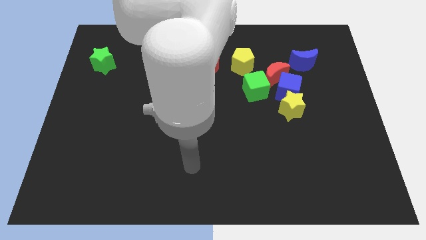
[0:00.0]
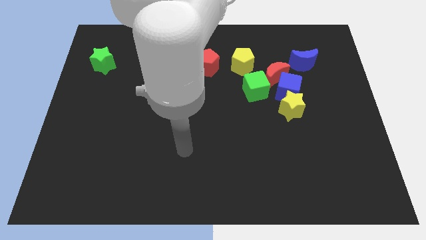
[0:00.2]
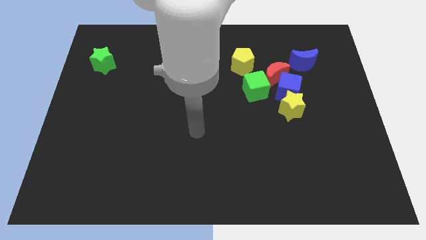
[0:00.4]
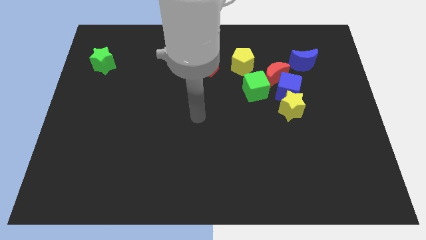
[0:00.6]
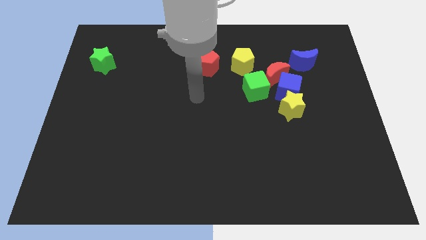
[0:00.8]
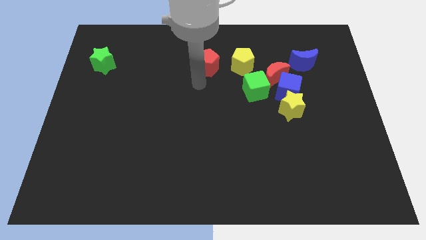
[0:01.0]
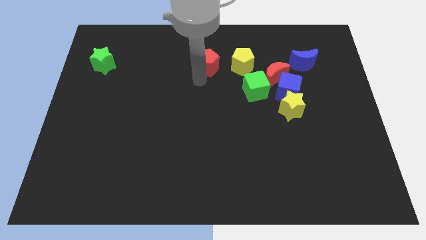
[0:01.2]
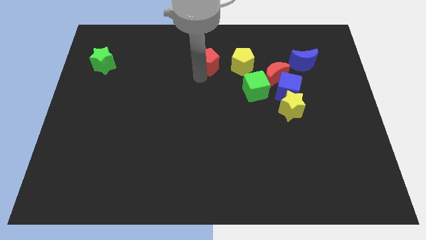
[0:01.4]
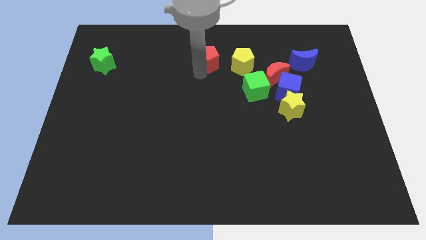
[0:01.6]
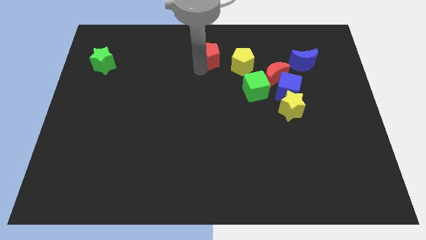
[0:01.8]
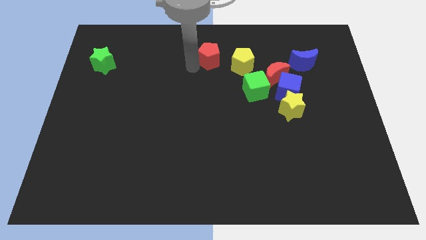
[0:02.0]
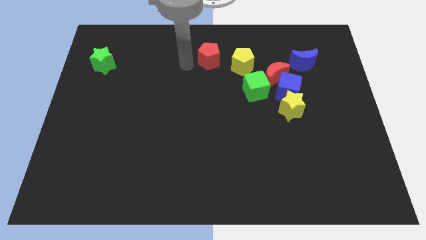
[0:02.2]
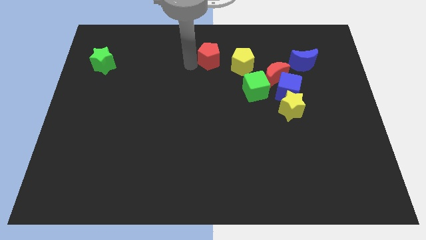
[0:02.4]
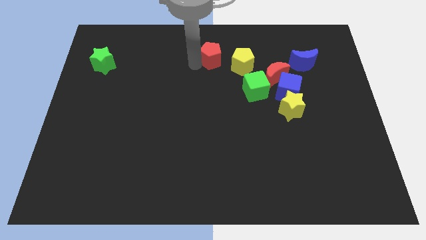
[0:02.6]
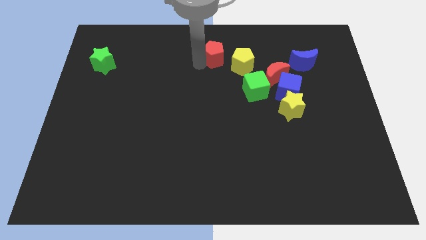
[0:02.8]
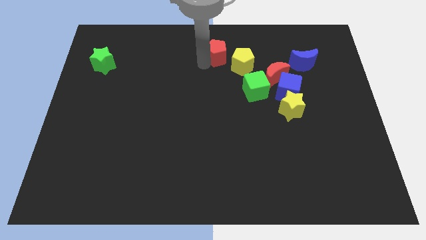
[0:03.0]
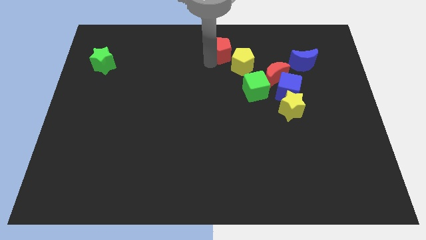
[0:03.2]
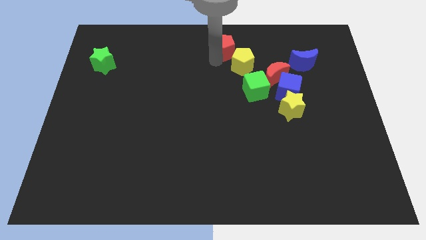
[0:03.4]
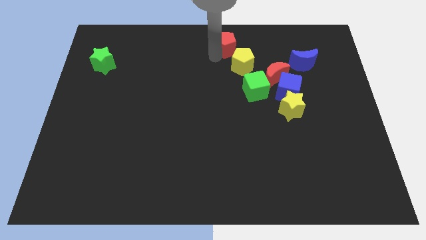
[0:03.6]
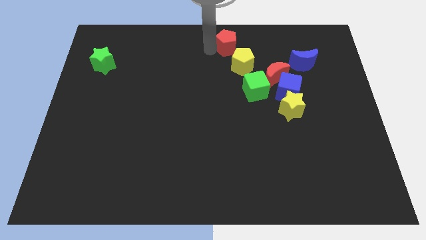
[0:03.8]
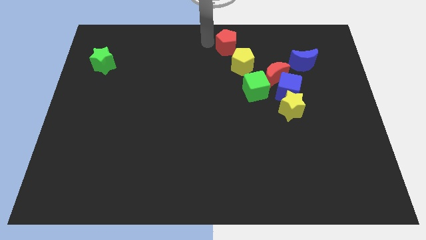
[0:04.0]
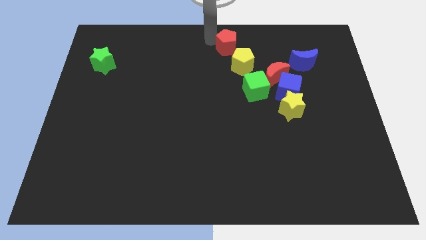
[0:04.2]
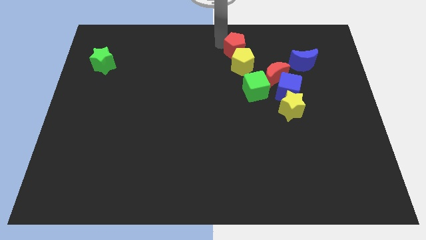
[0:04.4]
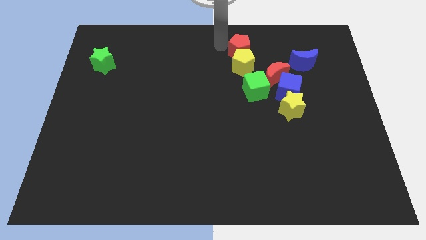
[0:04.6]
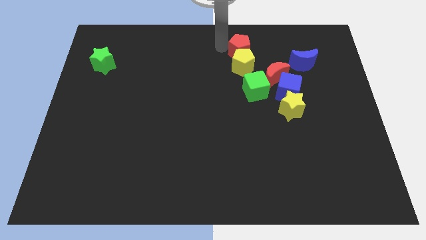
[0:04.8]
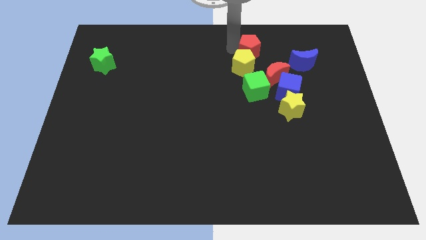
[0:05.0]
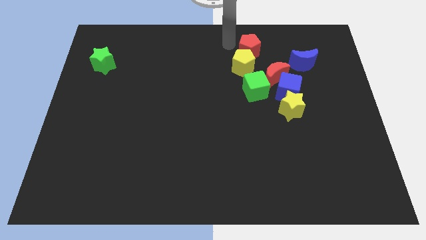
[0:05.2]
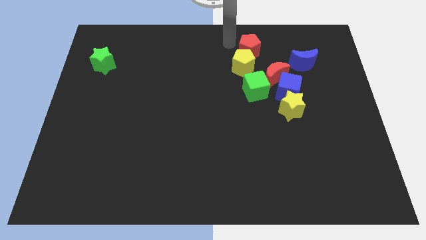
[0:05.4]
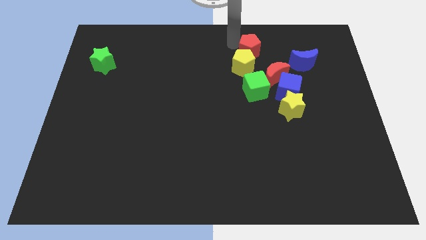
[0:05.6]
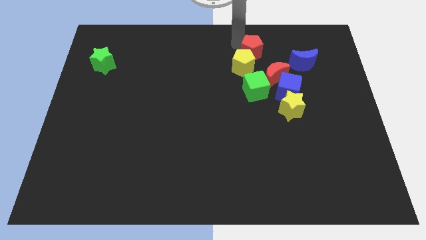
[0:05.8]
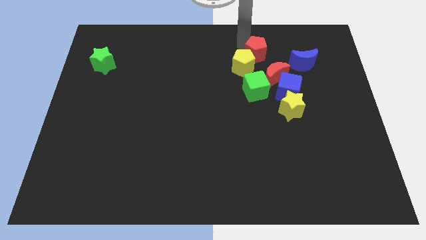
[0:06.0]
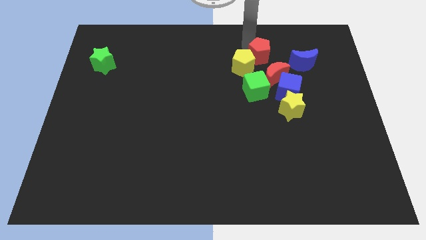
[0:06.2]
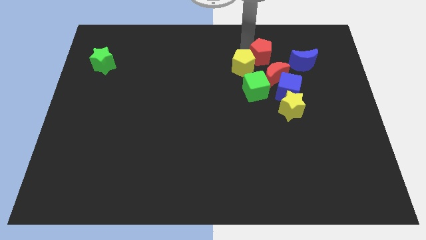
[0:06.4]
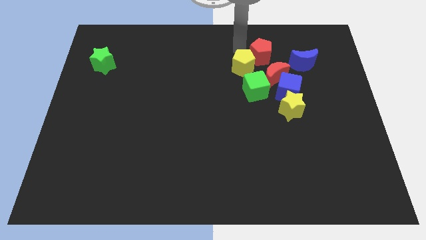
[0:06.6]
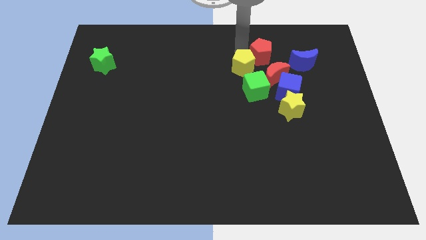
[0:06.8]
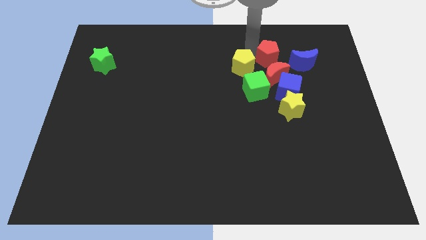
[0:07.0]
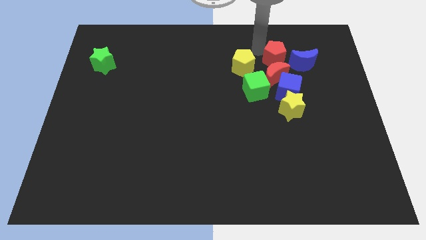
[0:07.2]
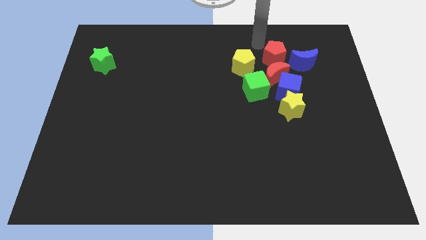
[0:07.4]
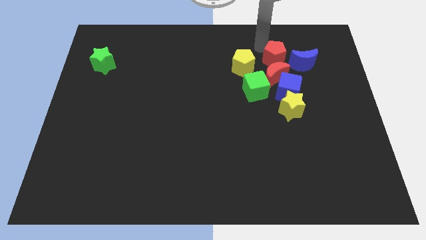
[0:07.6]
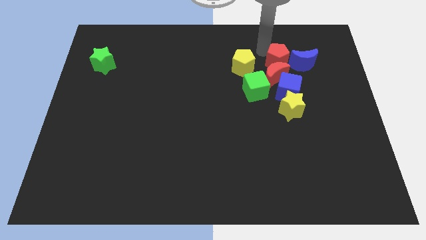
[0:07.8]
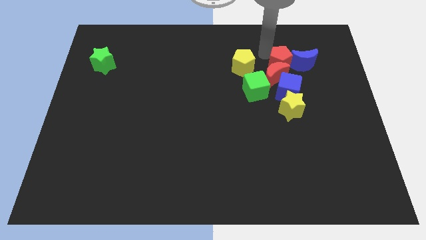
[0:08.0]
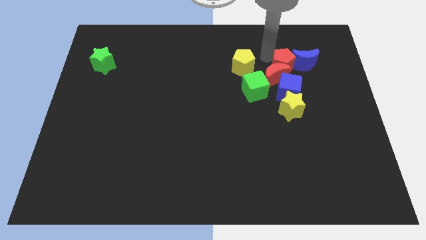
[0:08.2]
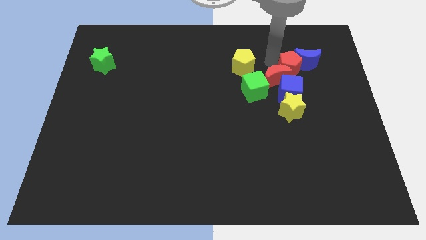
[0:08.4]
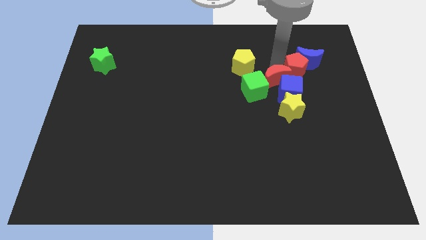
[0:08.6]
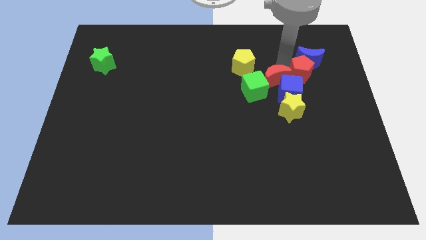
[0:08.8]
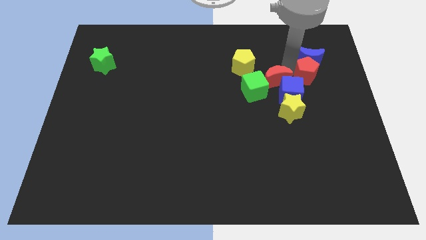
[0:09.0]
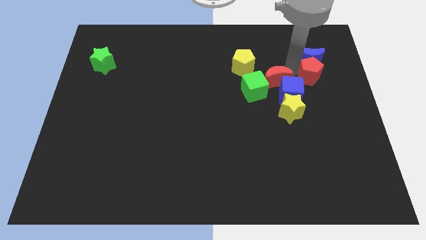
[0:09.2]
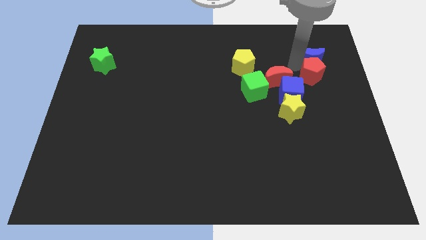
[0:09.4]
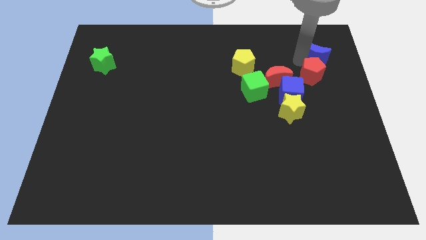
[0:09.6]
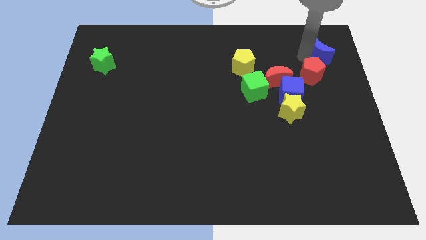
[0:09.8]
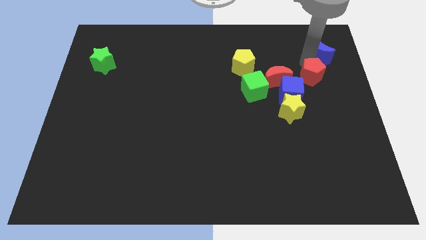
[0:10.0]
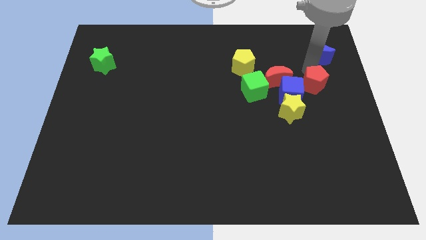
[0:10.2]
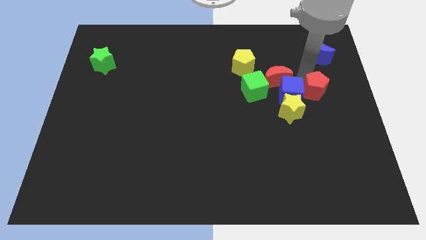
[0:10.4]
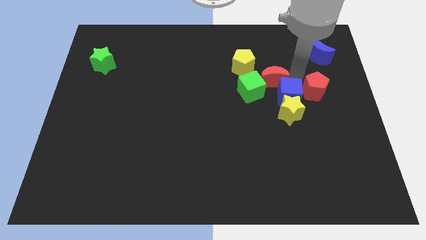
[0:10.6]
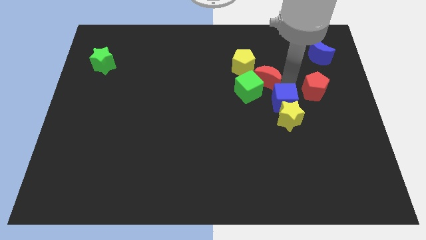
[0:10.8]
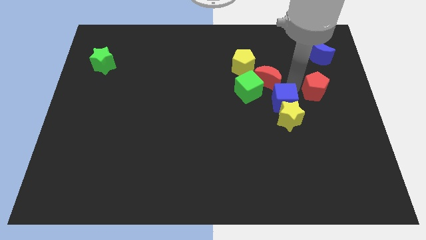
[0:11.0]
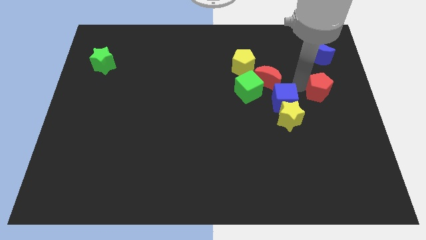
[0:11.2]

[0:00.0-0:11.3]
push the red pentagon to the right side of the board

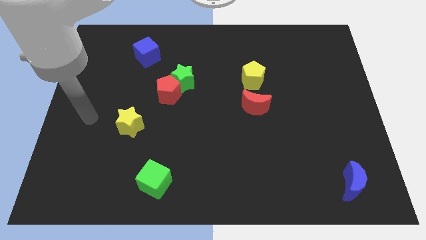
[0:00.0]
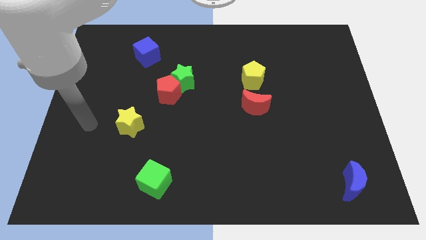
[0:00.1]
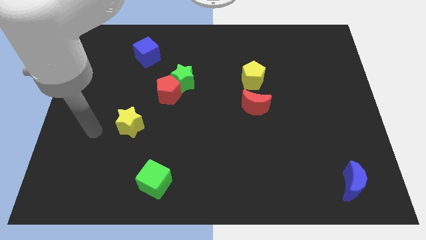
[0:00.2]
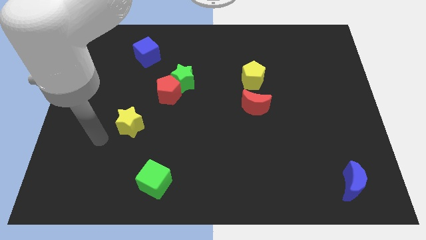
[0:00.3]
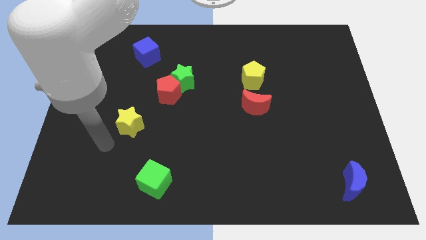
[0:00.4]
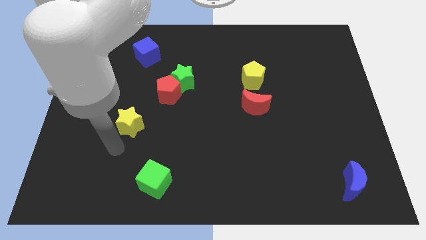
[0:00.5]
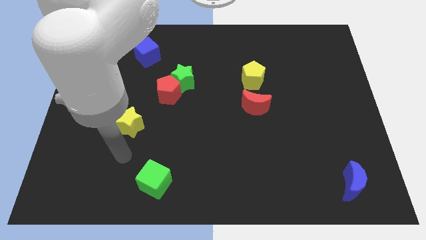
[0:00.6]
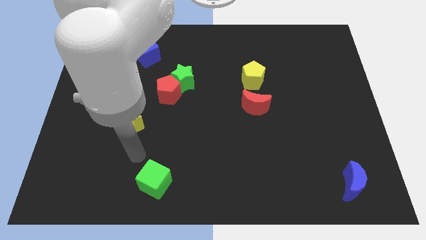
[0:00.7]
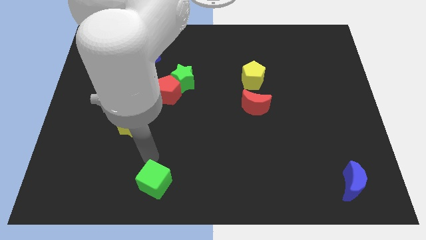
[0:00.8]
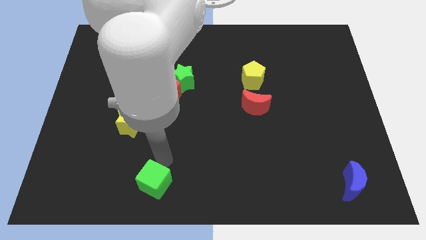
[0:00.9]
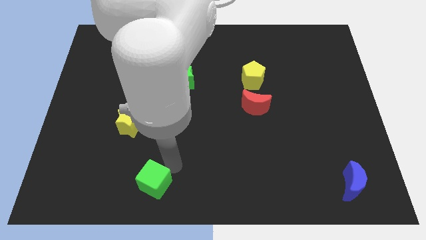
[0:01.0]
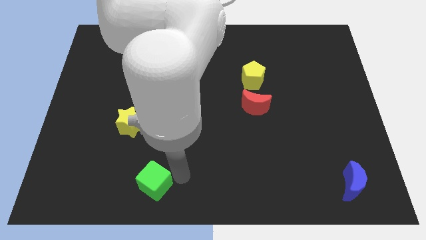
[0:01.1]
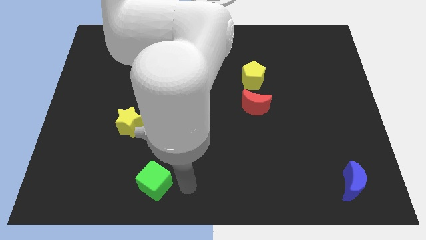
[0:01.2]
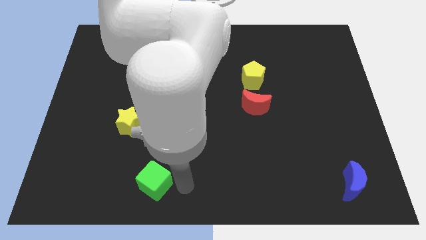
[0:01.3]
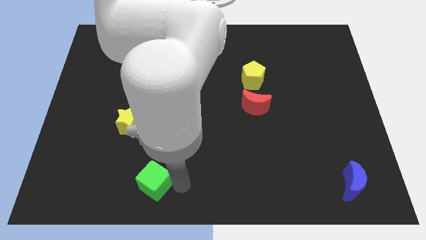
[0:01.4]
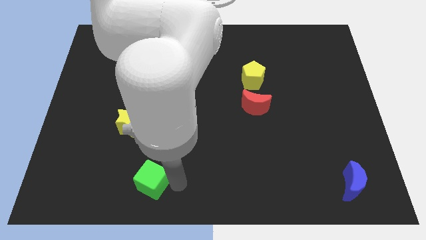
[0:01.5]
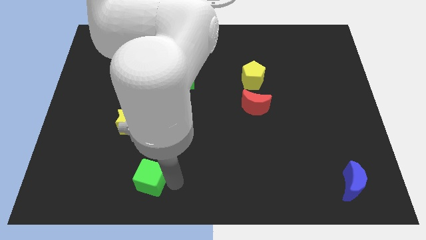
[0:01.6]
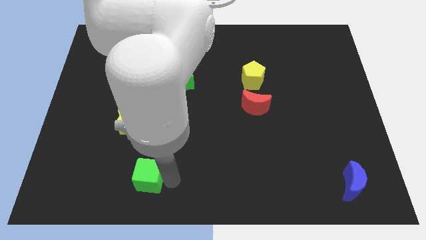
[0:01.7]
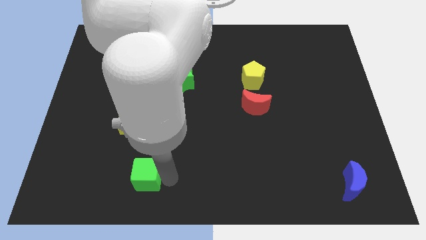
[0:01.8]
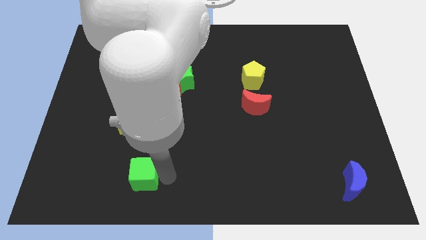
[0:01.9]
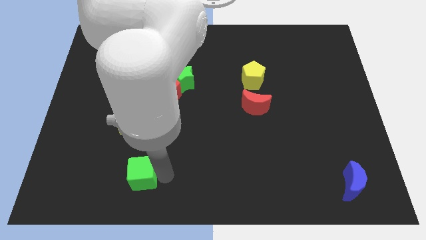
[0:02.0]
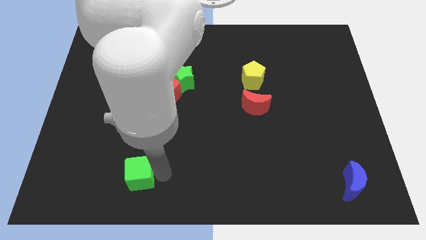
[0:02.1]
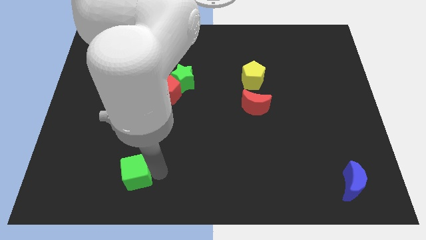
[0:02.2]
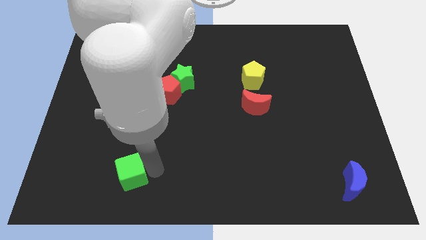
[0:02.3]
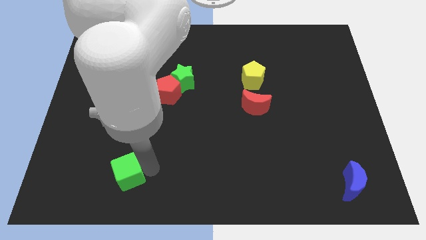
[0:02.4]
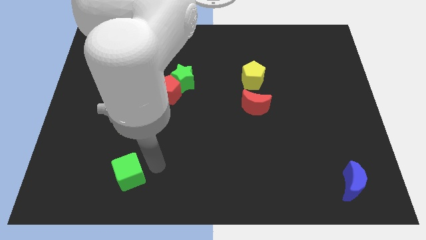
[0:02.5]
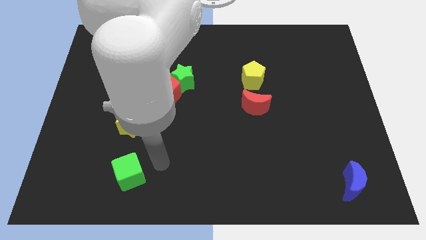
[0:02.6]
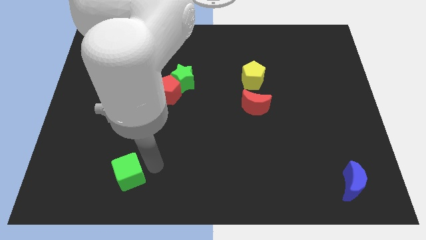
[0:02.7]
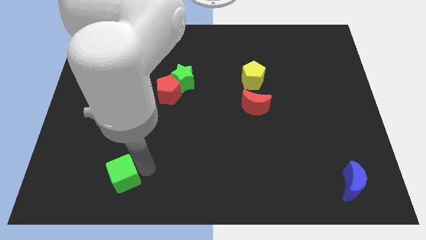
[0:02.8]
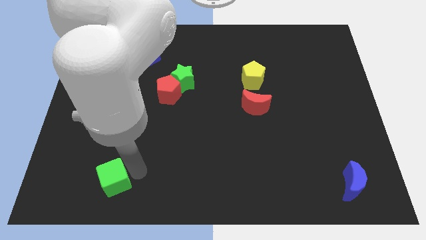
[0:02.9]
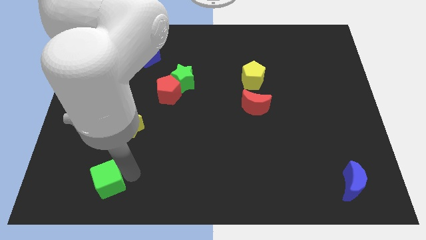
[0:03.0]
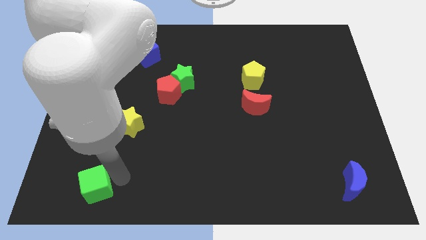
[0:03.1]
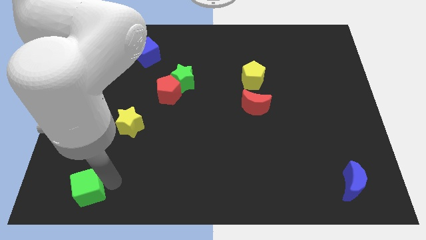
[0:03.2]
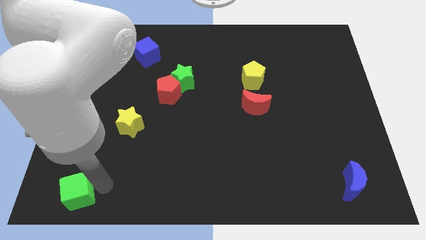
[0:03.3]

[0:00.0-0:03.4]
put the green cube to the bottom left corner
